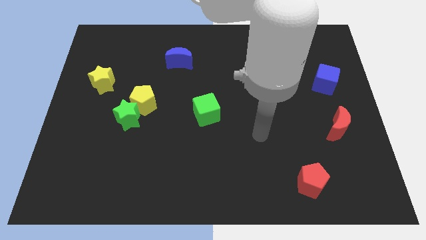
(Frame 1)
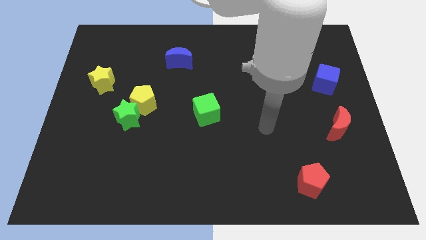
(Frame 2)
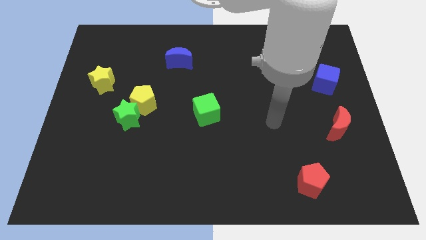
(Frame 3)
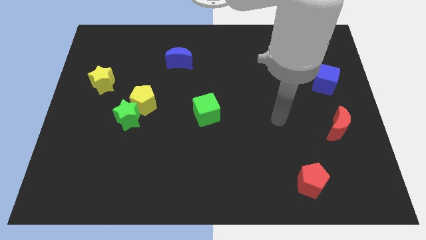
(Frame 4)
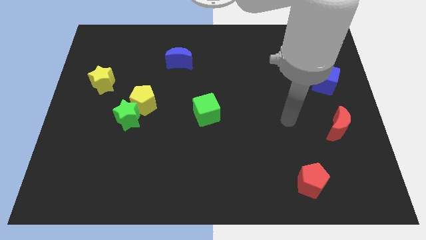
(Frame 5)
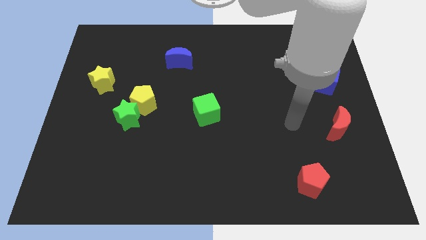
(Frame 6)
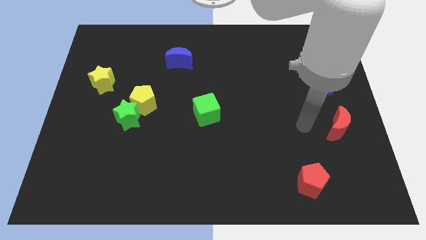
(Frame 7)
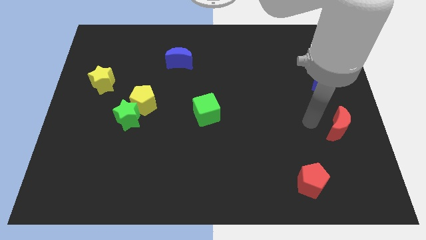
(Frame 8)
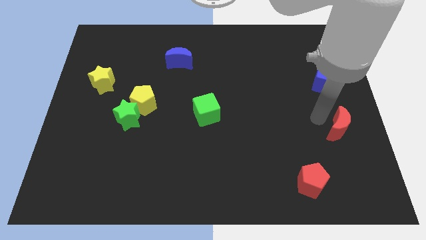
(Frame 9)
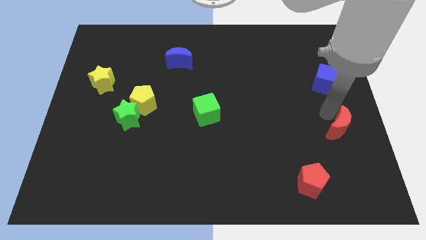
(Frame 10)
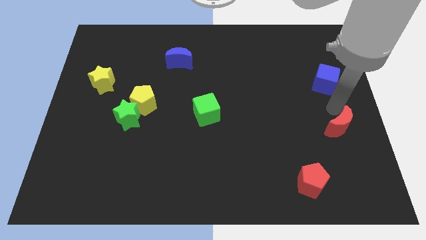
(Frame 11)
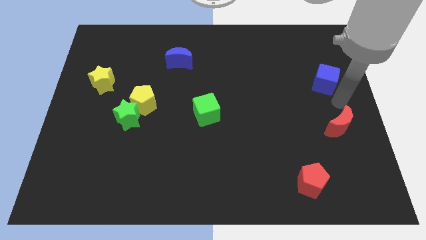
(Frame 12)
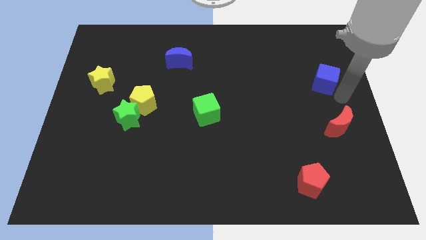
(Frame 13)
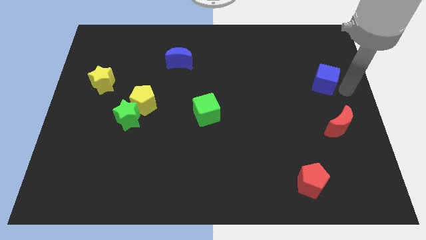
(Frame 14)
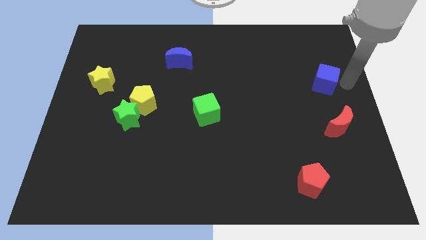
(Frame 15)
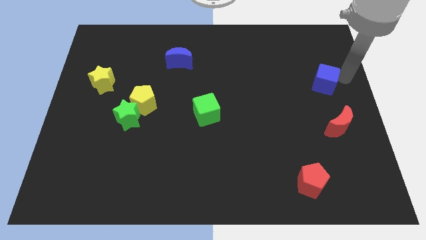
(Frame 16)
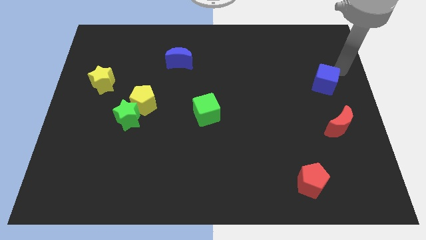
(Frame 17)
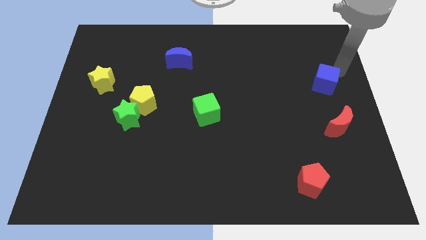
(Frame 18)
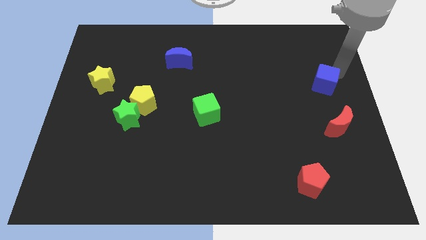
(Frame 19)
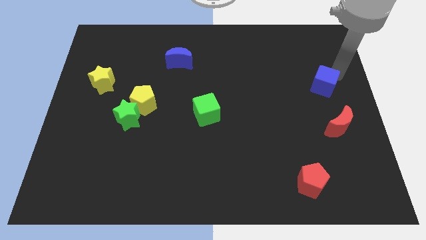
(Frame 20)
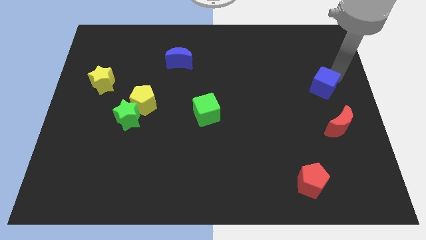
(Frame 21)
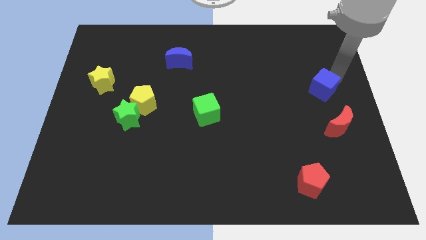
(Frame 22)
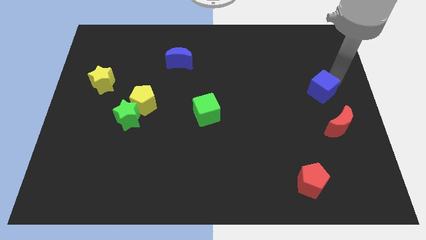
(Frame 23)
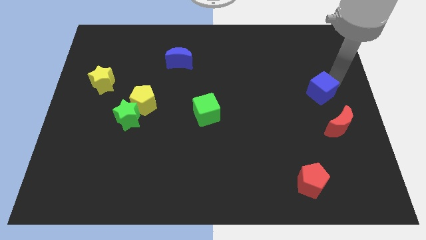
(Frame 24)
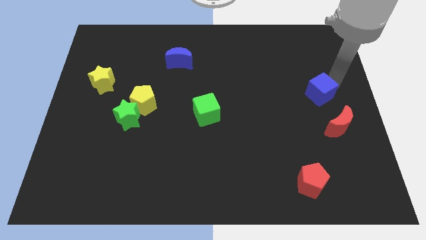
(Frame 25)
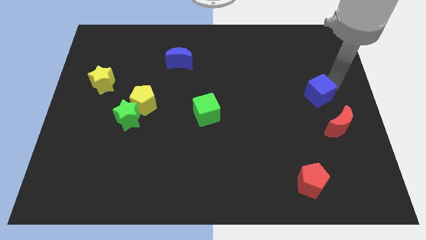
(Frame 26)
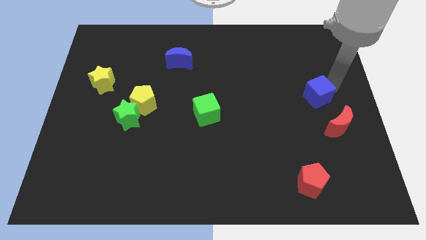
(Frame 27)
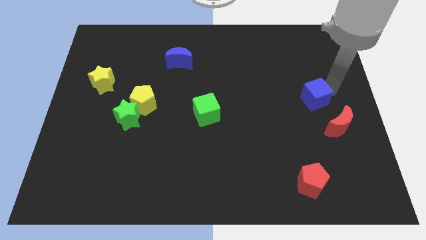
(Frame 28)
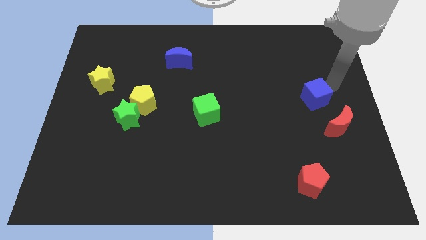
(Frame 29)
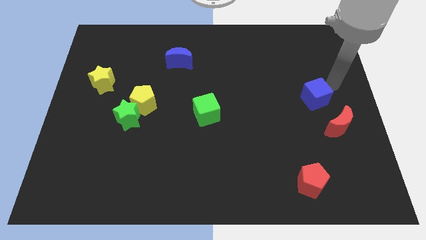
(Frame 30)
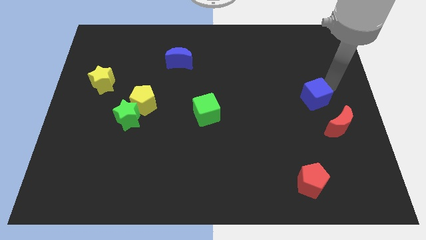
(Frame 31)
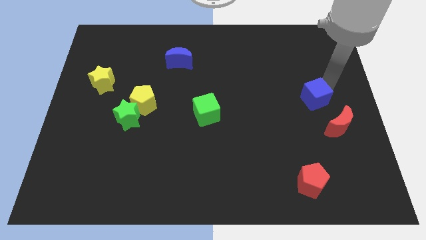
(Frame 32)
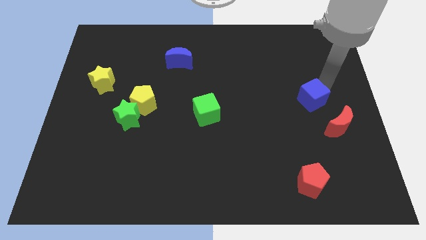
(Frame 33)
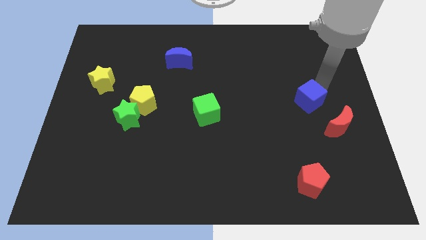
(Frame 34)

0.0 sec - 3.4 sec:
slide the blue cube somewhat down and left

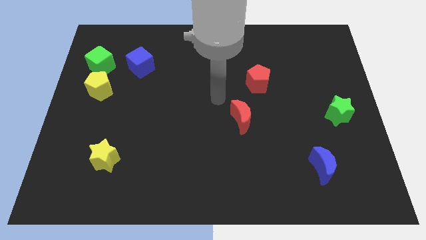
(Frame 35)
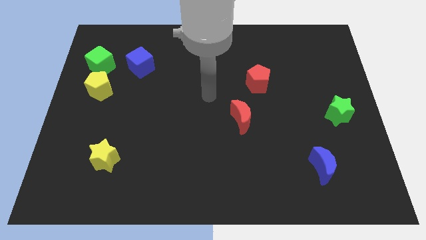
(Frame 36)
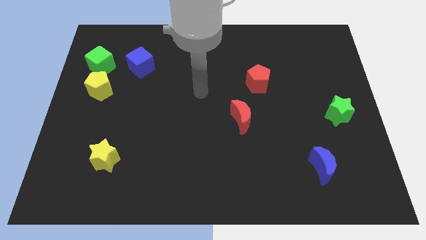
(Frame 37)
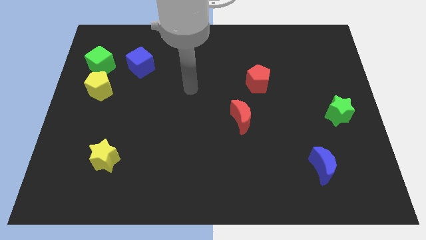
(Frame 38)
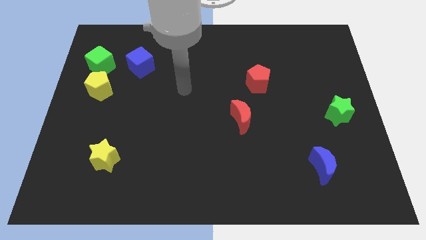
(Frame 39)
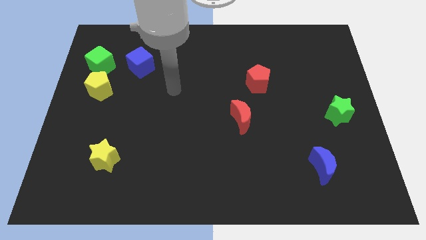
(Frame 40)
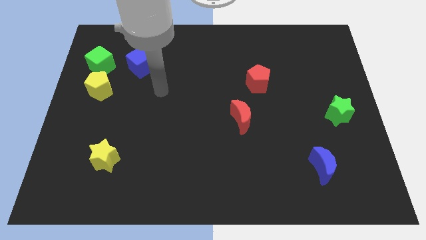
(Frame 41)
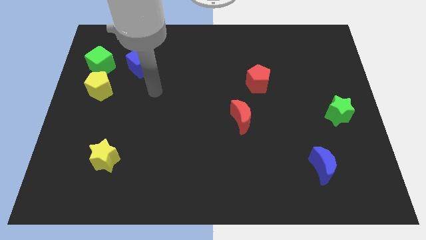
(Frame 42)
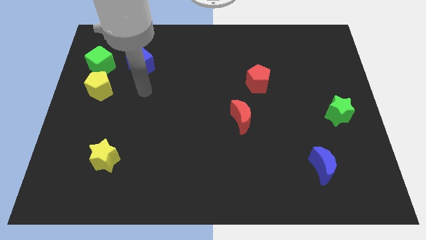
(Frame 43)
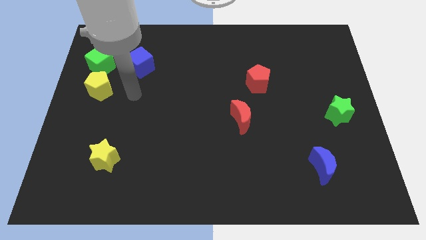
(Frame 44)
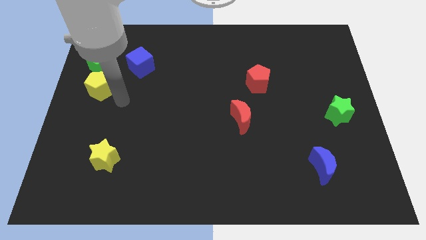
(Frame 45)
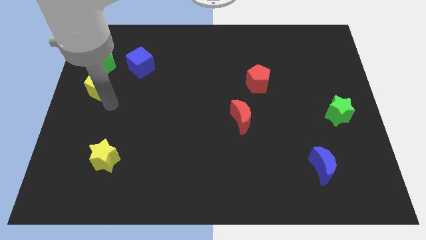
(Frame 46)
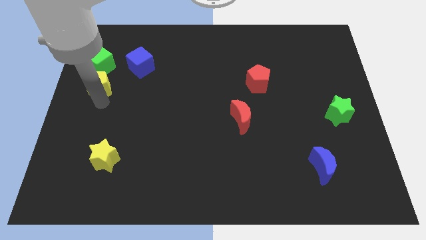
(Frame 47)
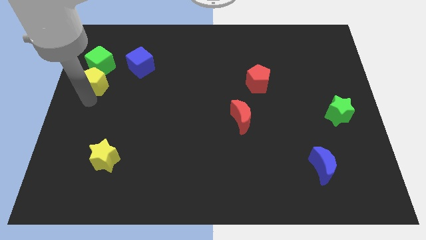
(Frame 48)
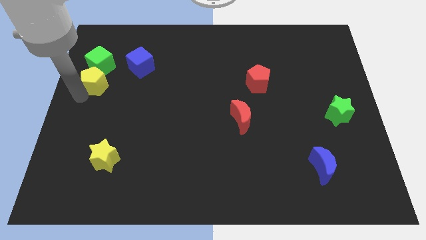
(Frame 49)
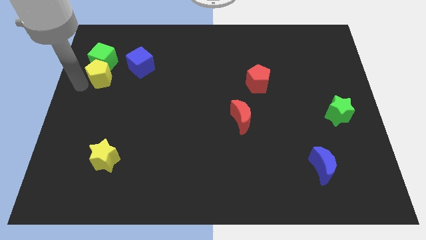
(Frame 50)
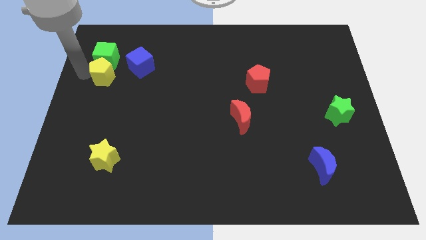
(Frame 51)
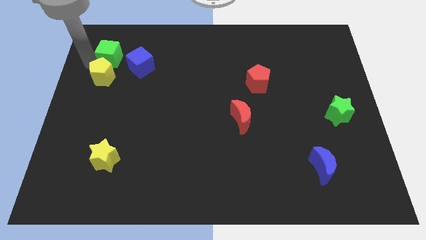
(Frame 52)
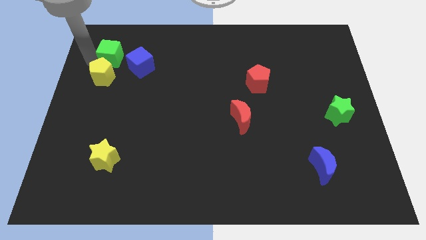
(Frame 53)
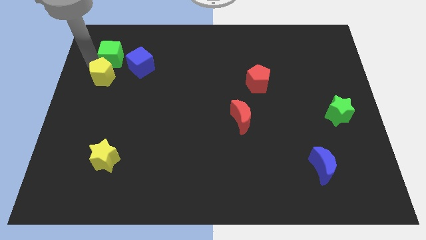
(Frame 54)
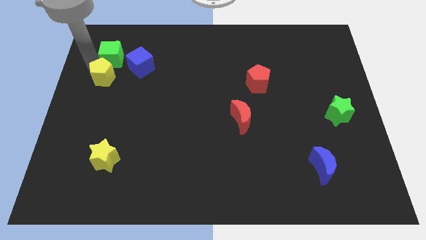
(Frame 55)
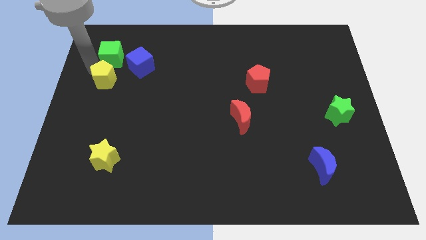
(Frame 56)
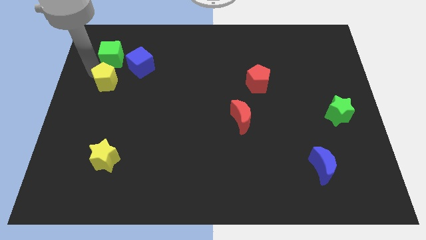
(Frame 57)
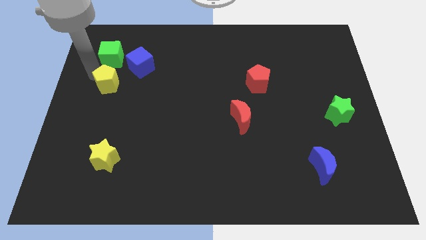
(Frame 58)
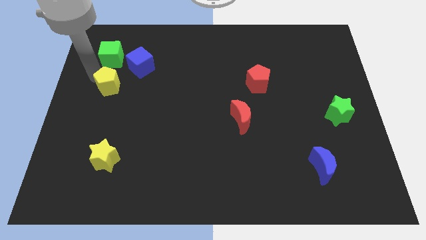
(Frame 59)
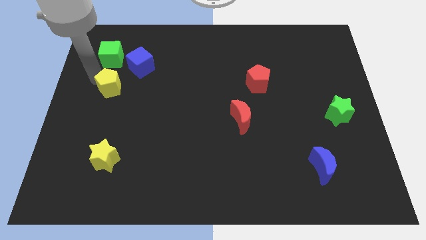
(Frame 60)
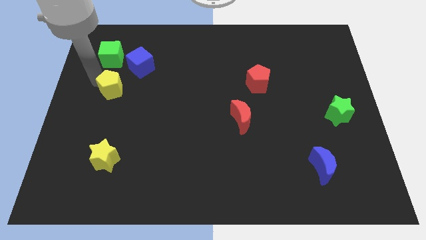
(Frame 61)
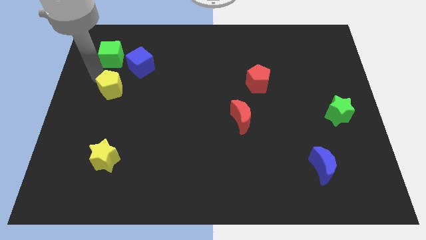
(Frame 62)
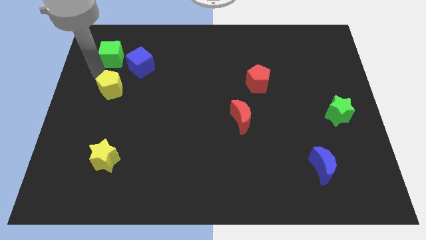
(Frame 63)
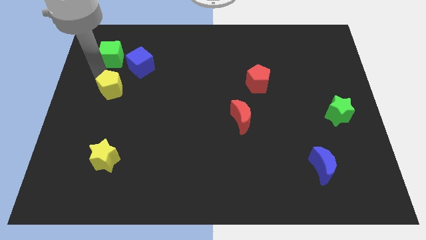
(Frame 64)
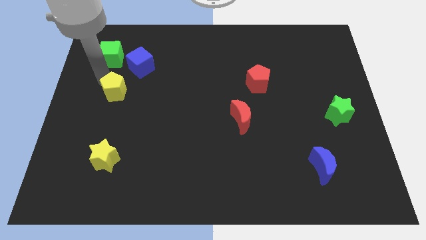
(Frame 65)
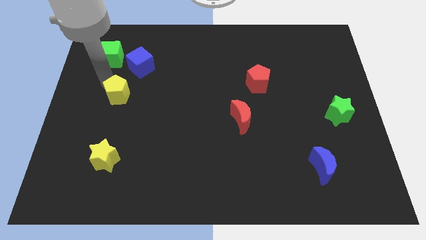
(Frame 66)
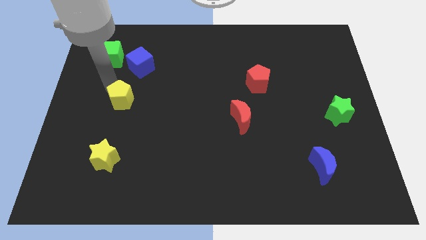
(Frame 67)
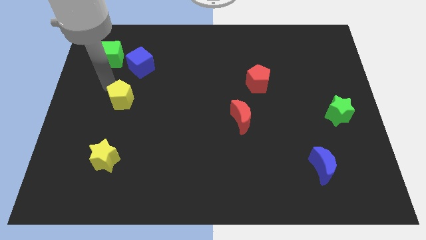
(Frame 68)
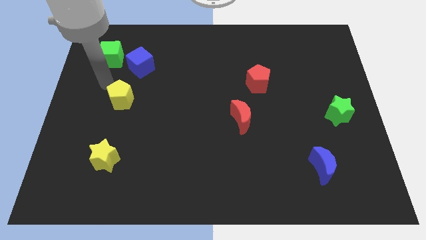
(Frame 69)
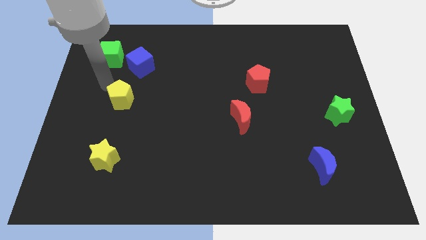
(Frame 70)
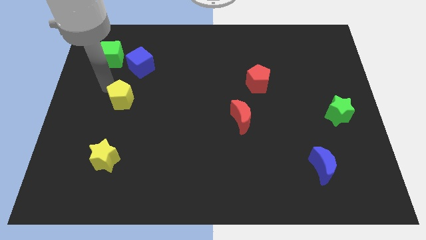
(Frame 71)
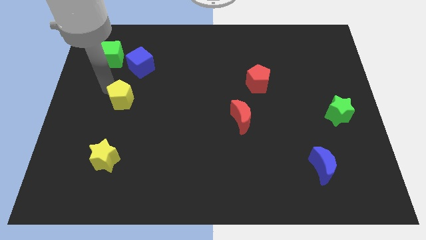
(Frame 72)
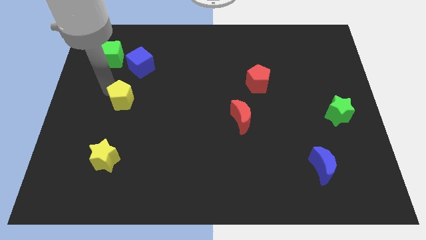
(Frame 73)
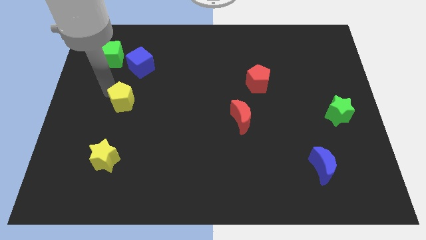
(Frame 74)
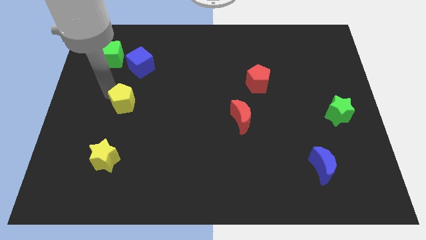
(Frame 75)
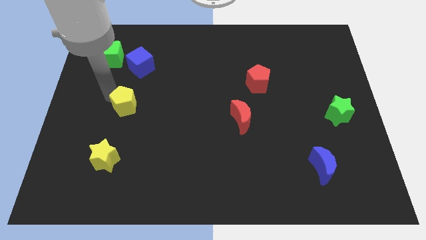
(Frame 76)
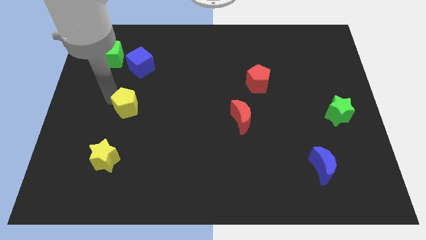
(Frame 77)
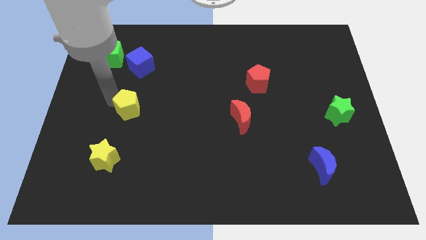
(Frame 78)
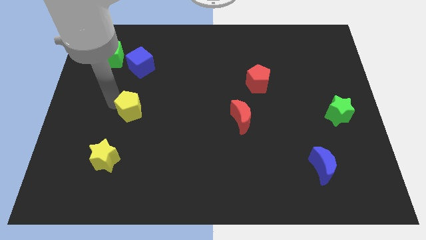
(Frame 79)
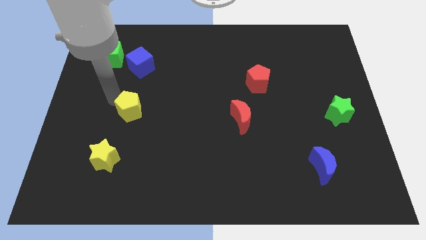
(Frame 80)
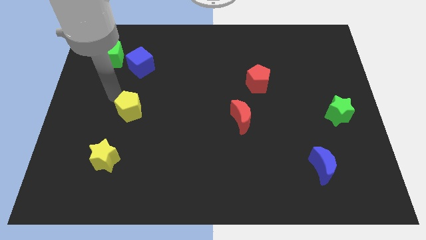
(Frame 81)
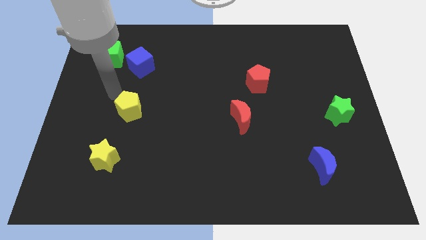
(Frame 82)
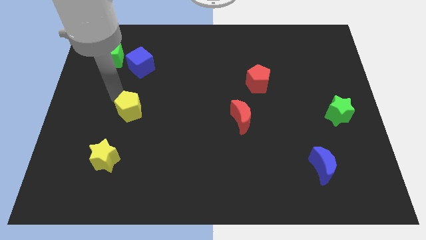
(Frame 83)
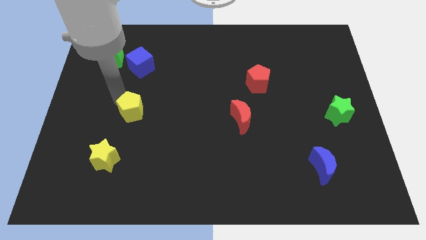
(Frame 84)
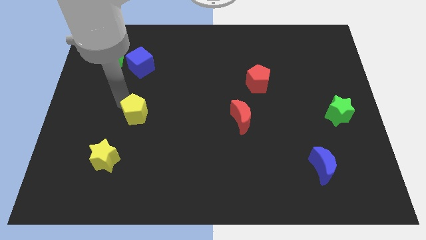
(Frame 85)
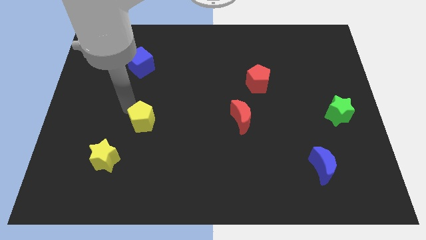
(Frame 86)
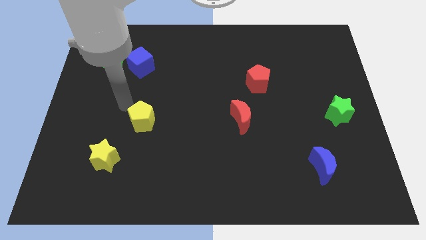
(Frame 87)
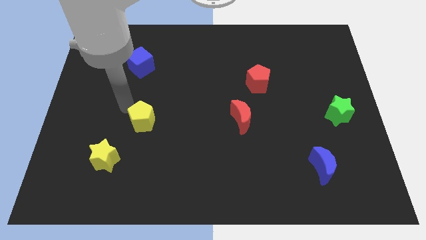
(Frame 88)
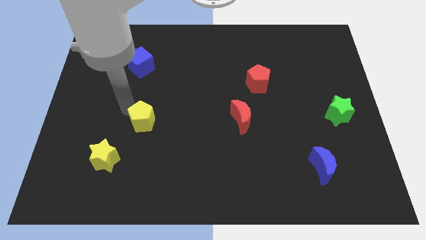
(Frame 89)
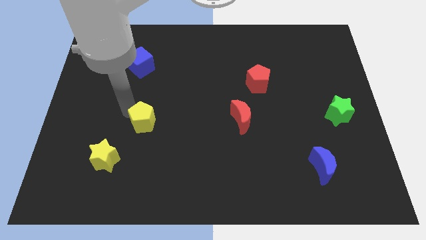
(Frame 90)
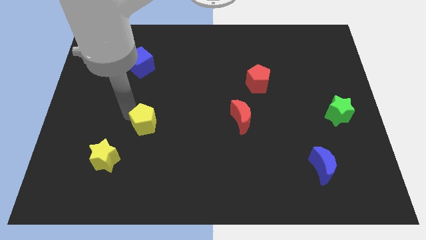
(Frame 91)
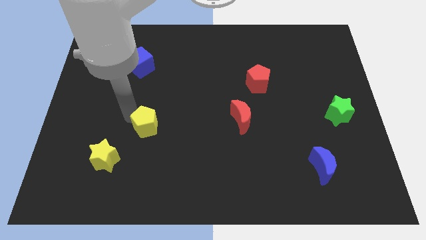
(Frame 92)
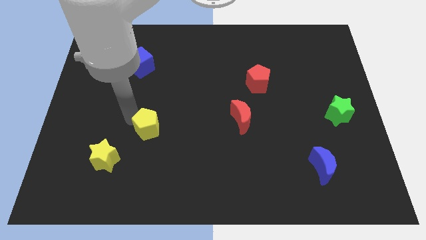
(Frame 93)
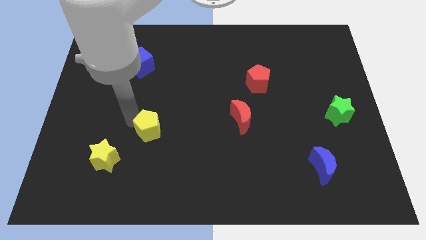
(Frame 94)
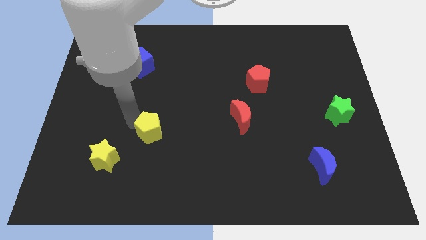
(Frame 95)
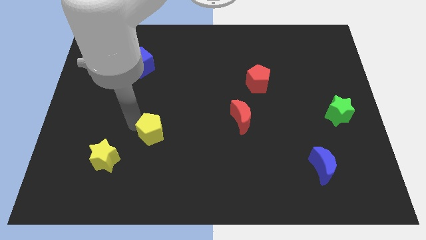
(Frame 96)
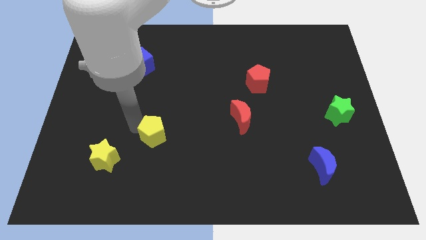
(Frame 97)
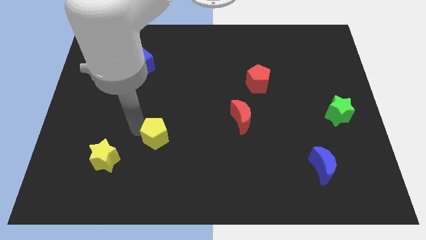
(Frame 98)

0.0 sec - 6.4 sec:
push the yellow pentagon downwards and right diagonally
